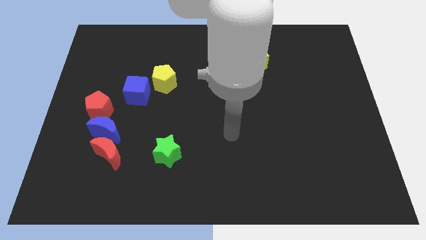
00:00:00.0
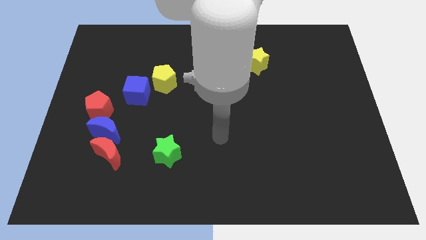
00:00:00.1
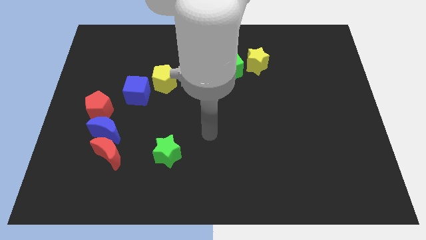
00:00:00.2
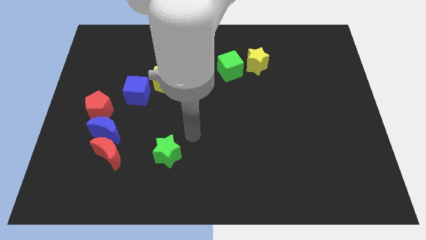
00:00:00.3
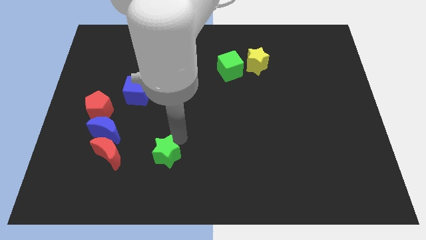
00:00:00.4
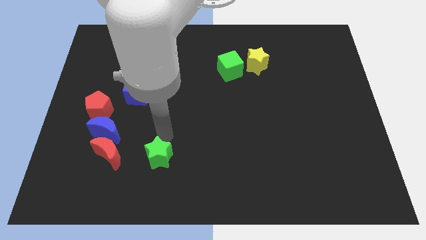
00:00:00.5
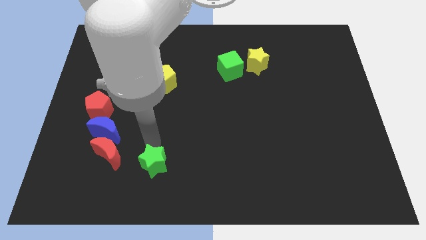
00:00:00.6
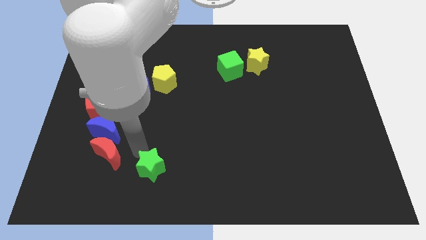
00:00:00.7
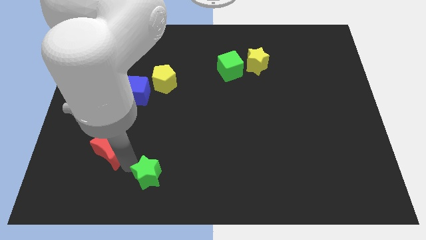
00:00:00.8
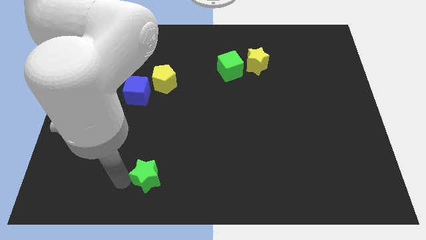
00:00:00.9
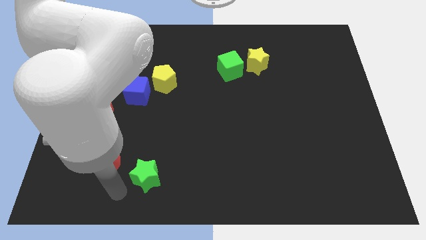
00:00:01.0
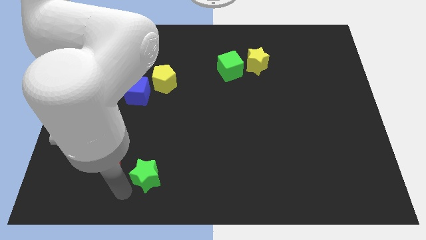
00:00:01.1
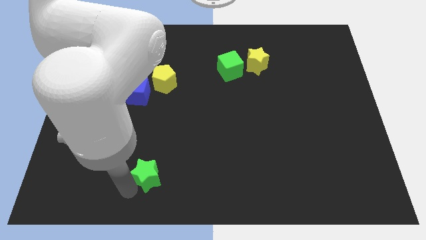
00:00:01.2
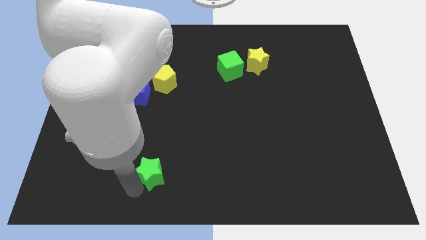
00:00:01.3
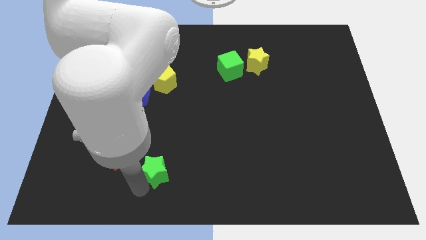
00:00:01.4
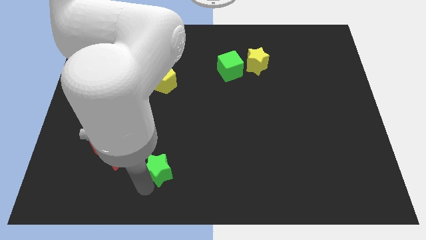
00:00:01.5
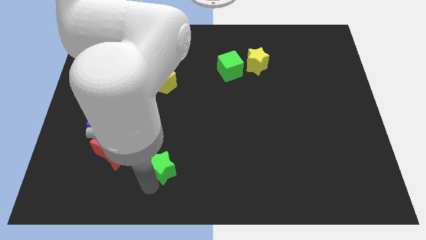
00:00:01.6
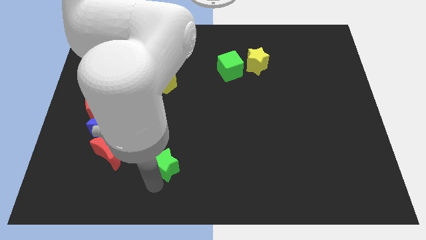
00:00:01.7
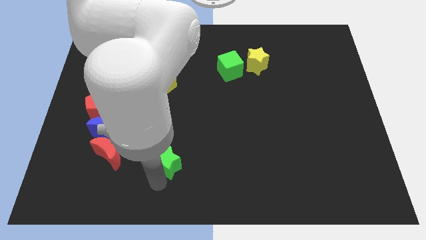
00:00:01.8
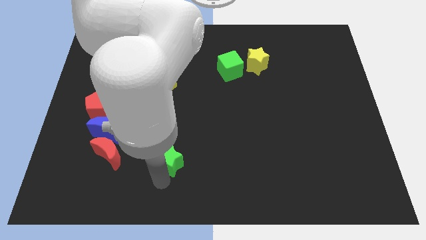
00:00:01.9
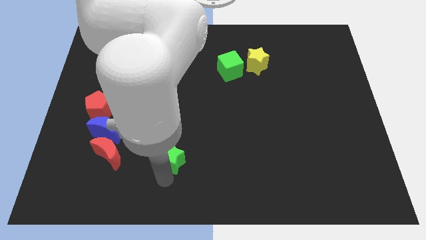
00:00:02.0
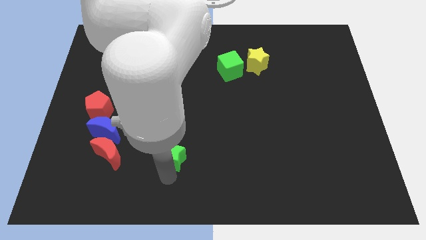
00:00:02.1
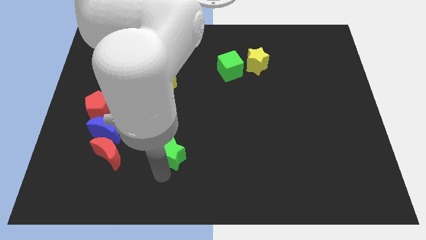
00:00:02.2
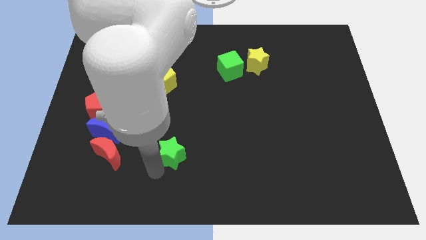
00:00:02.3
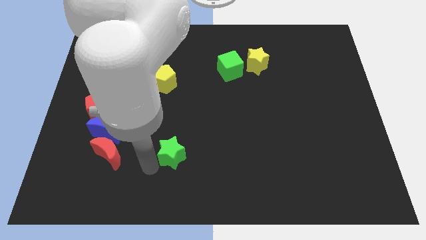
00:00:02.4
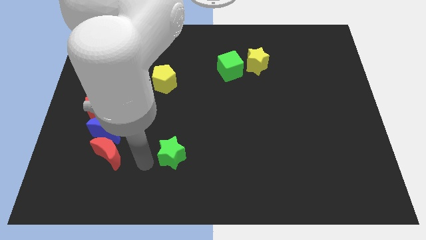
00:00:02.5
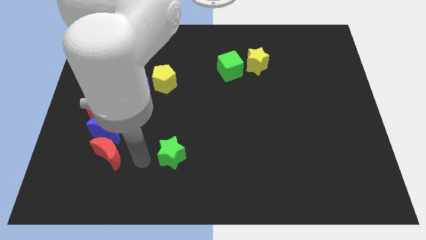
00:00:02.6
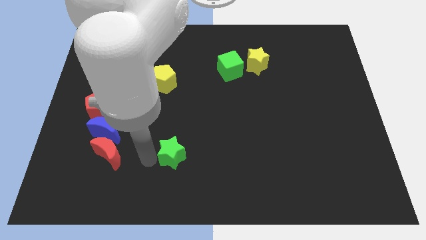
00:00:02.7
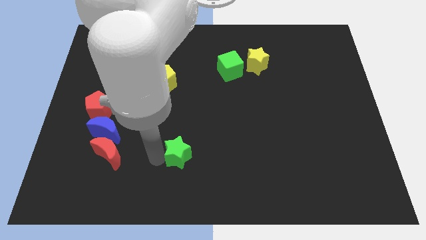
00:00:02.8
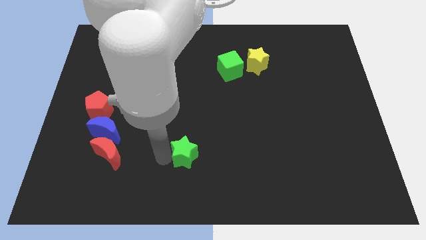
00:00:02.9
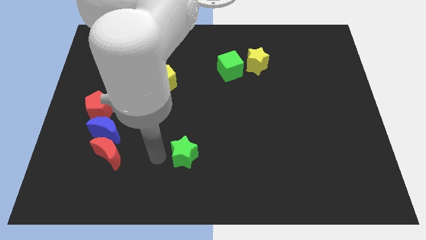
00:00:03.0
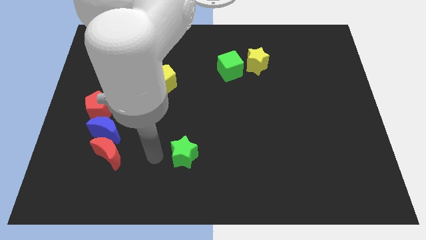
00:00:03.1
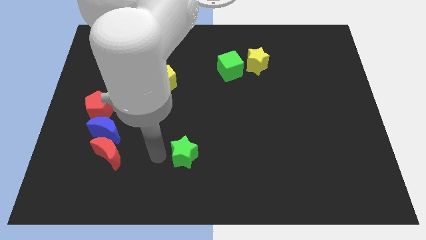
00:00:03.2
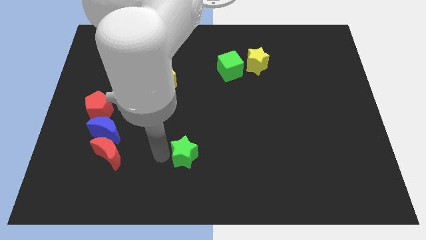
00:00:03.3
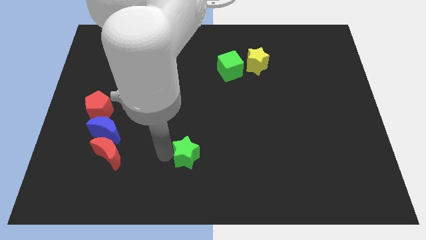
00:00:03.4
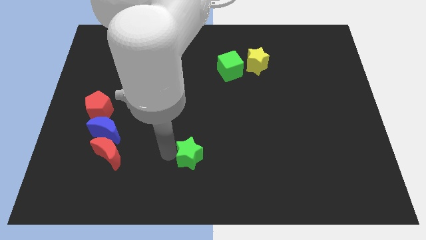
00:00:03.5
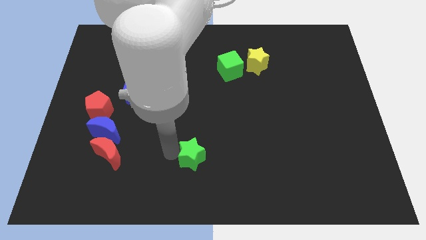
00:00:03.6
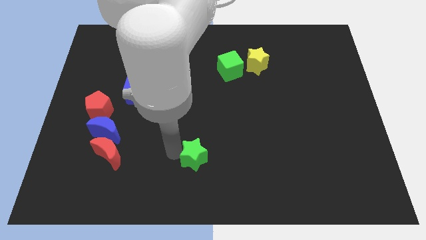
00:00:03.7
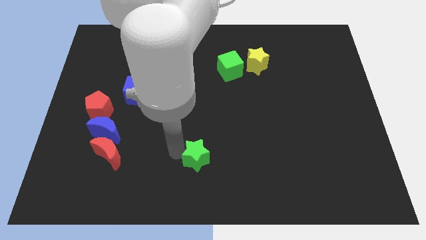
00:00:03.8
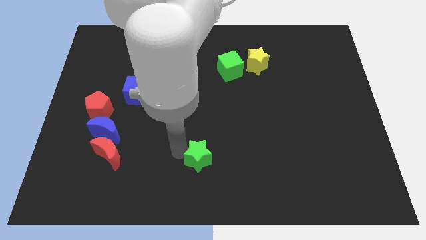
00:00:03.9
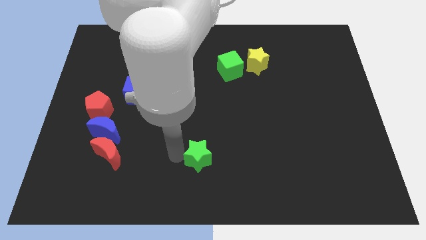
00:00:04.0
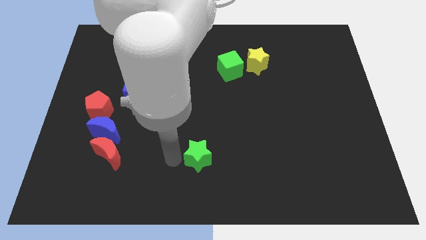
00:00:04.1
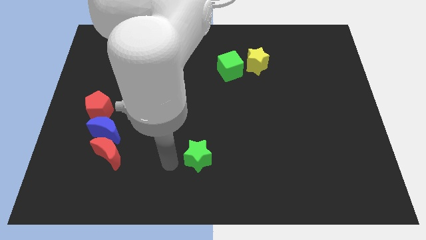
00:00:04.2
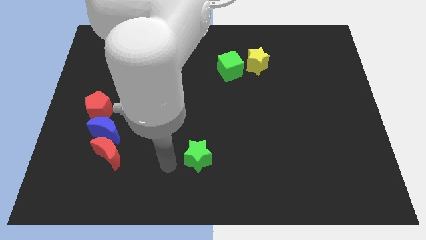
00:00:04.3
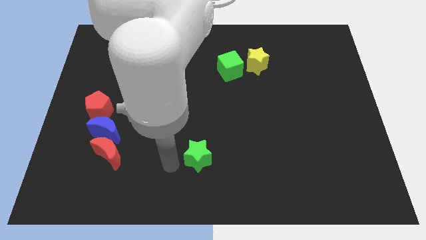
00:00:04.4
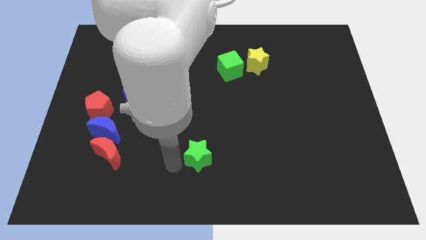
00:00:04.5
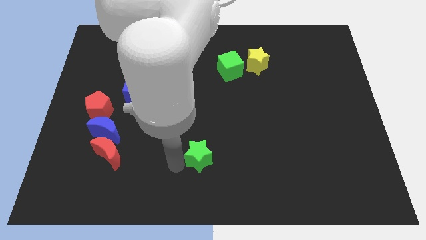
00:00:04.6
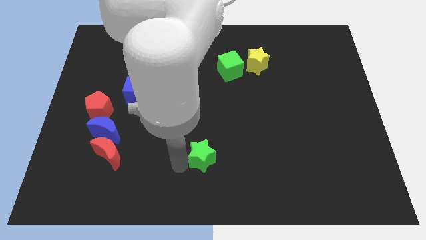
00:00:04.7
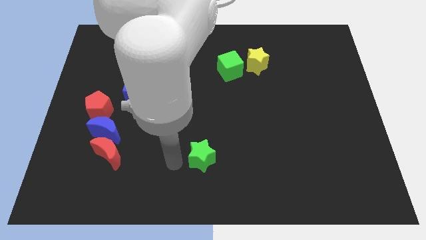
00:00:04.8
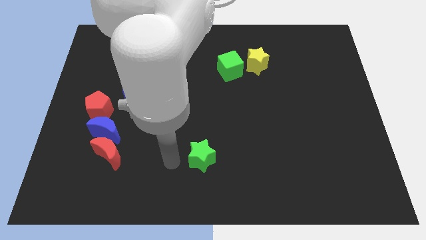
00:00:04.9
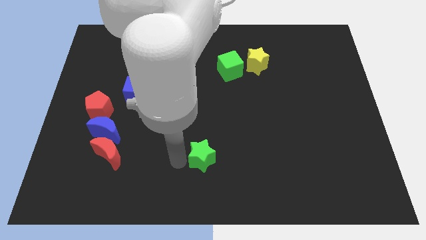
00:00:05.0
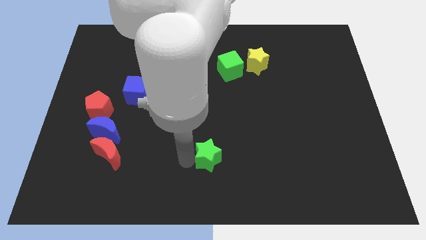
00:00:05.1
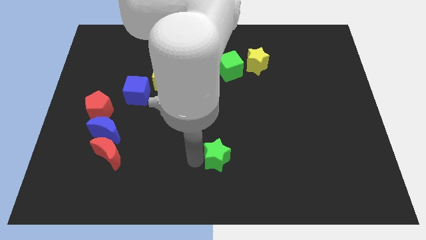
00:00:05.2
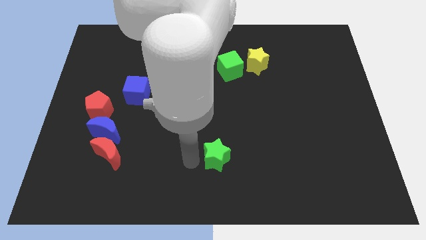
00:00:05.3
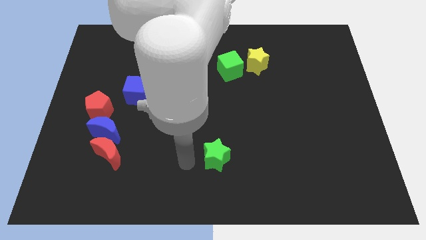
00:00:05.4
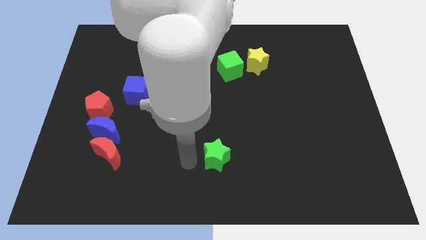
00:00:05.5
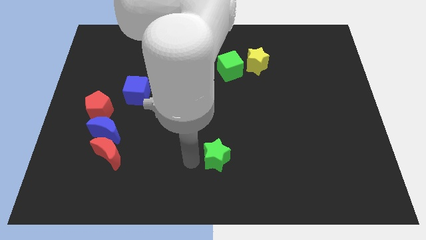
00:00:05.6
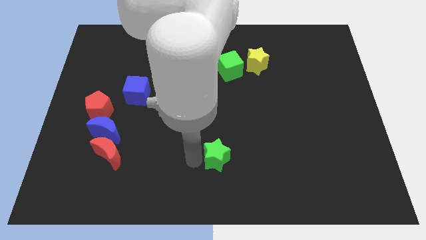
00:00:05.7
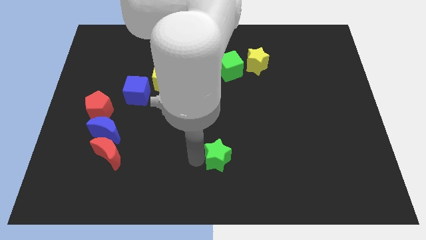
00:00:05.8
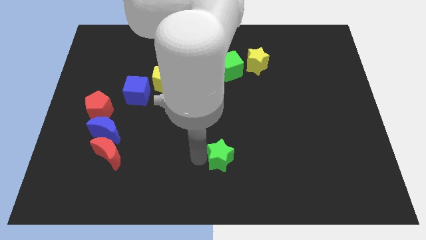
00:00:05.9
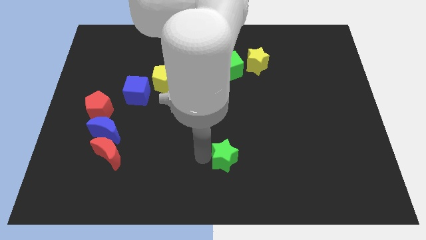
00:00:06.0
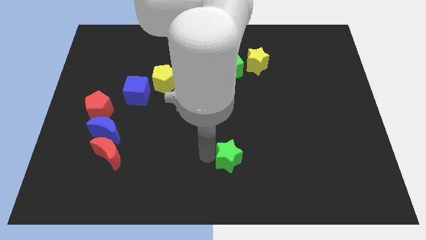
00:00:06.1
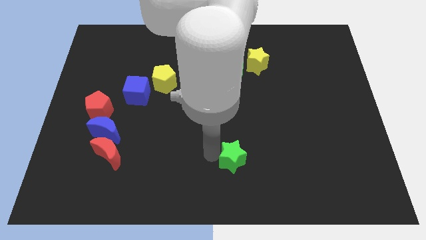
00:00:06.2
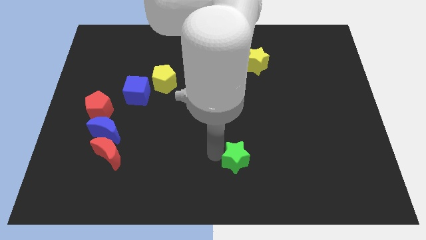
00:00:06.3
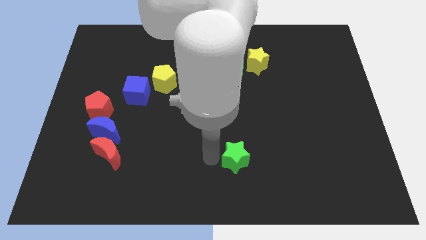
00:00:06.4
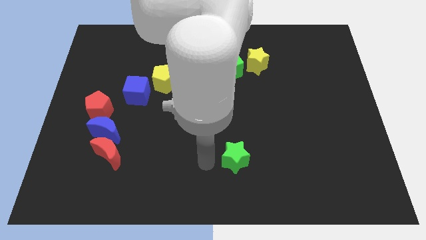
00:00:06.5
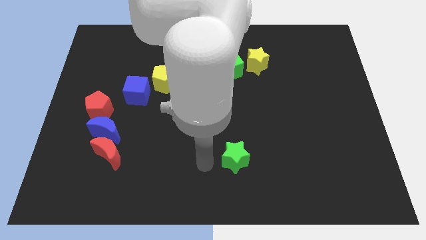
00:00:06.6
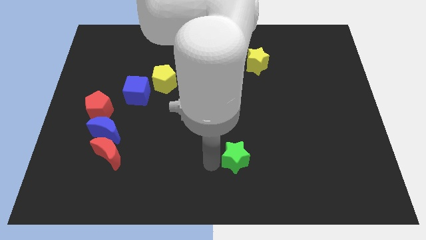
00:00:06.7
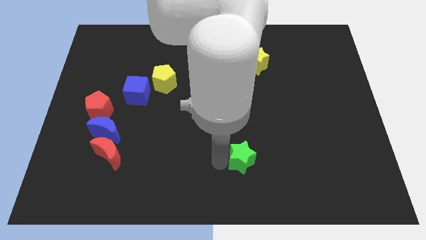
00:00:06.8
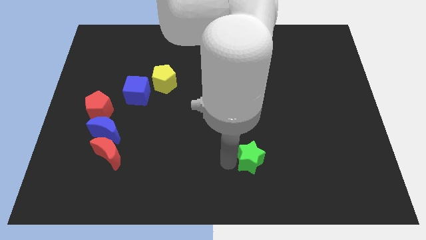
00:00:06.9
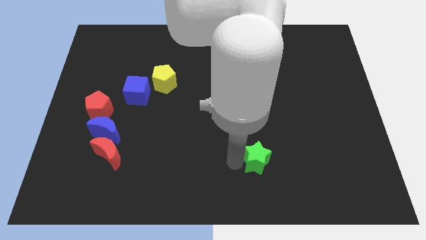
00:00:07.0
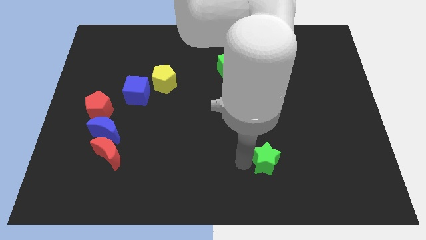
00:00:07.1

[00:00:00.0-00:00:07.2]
slide the green star right

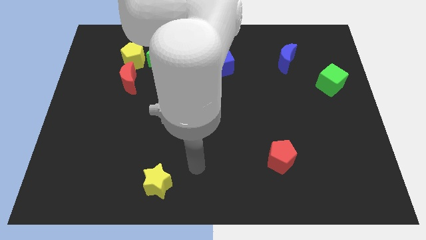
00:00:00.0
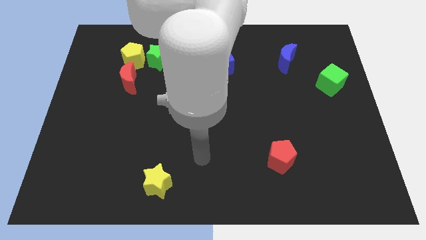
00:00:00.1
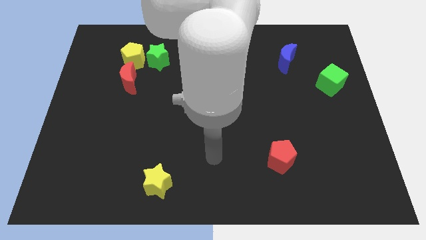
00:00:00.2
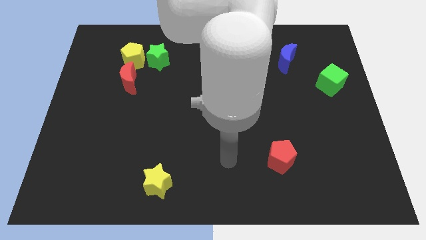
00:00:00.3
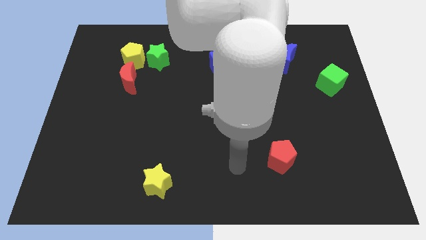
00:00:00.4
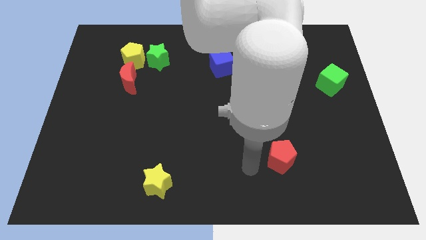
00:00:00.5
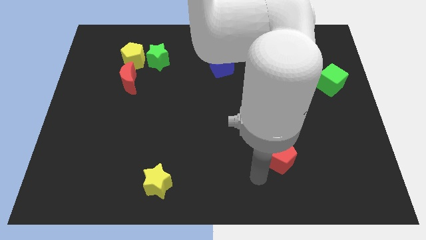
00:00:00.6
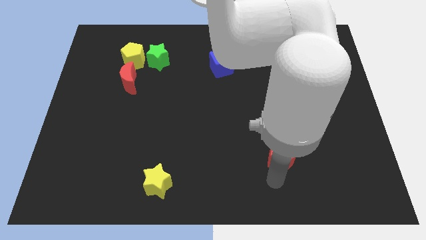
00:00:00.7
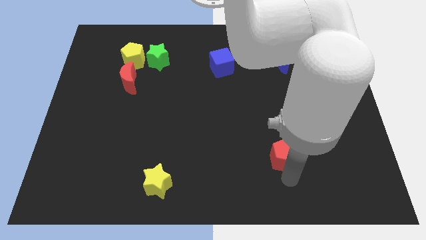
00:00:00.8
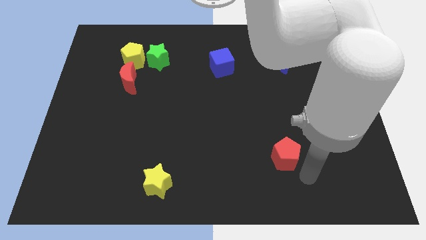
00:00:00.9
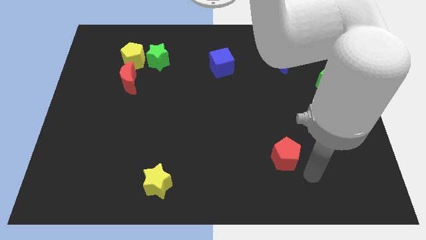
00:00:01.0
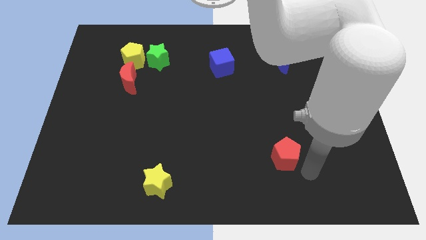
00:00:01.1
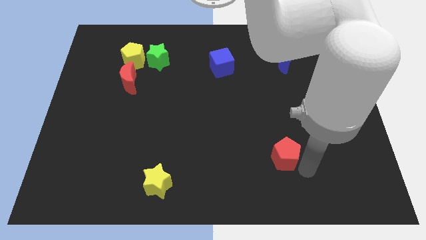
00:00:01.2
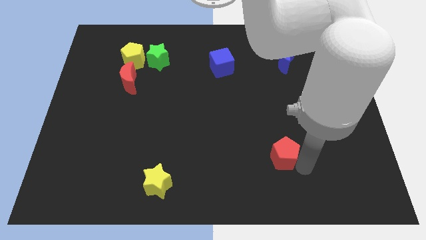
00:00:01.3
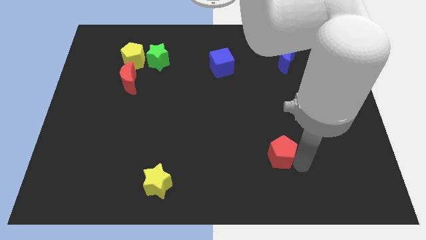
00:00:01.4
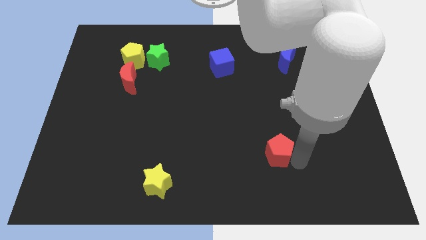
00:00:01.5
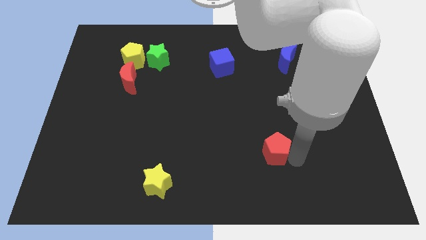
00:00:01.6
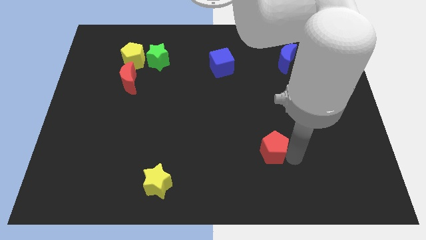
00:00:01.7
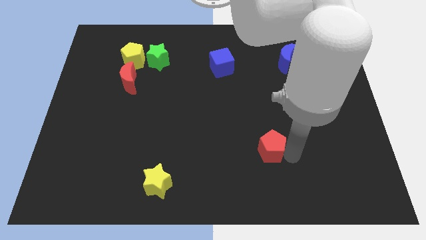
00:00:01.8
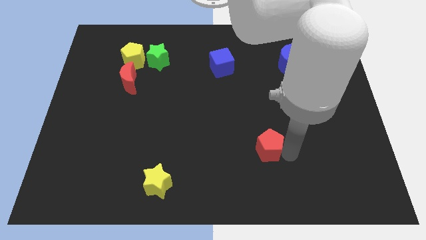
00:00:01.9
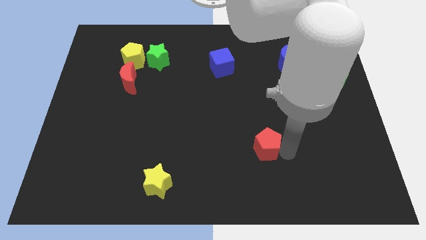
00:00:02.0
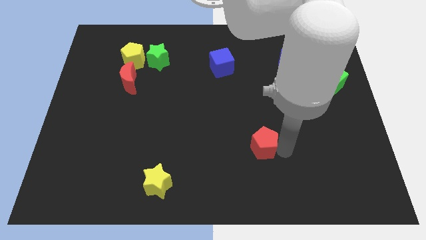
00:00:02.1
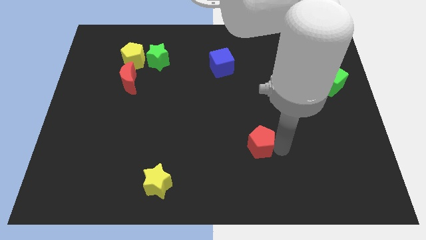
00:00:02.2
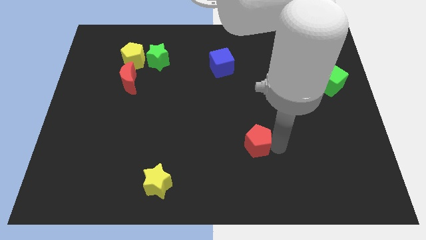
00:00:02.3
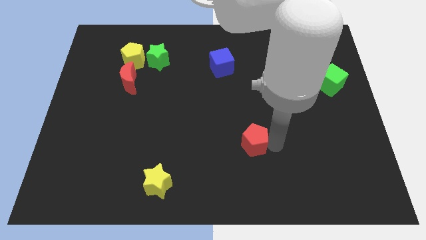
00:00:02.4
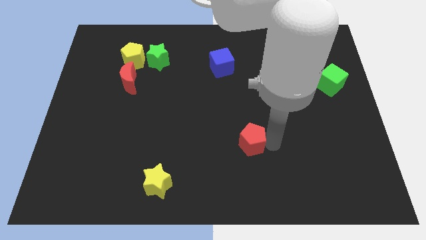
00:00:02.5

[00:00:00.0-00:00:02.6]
slightly move the red pentagon up and left
